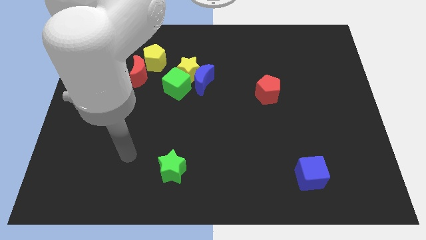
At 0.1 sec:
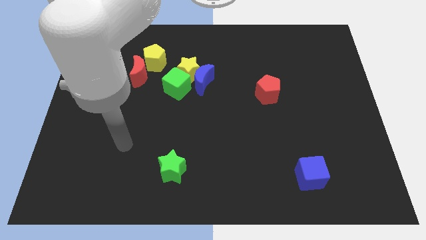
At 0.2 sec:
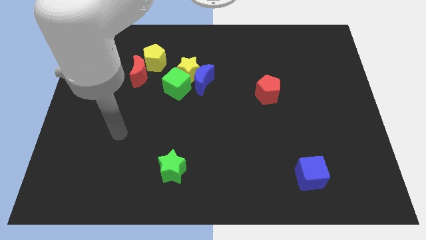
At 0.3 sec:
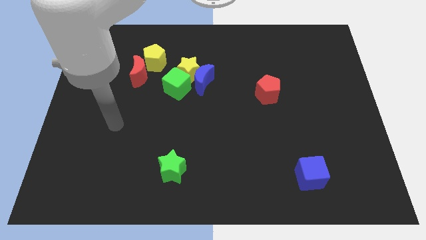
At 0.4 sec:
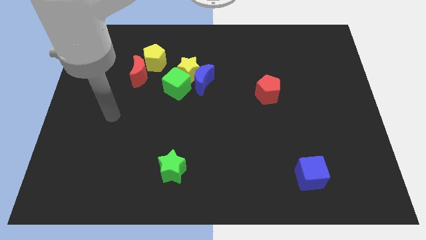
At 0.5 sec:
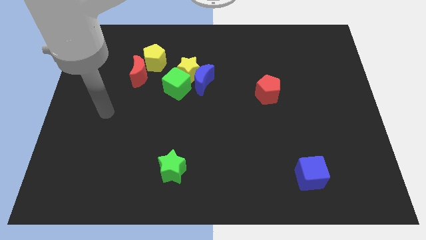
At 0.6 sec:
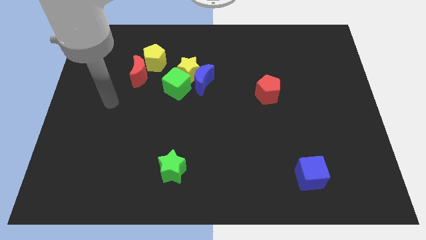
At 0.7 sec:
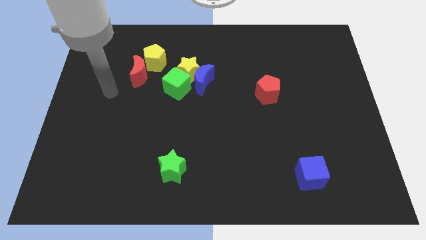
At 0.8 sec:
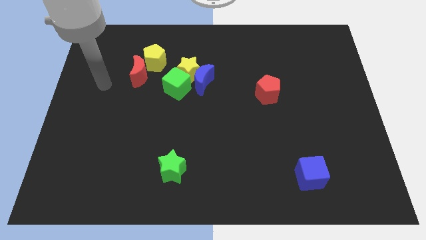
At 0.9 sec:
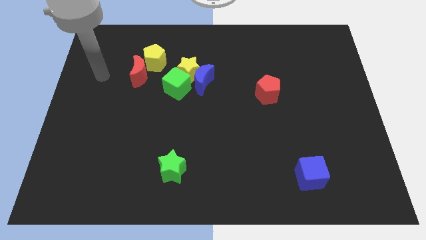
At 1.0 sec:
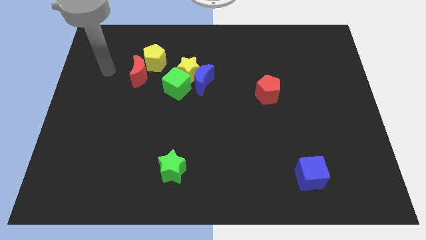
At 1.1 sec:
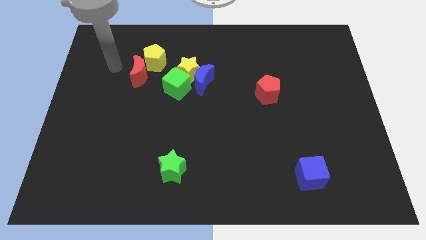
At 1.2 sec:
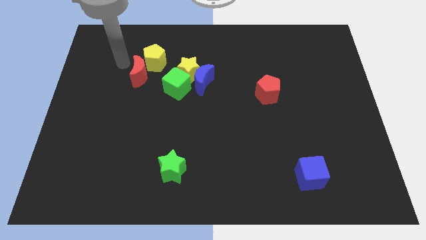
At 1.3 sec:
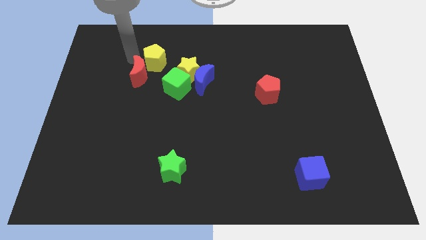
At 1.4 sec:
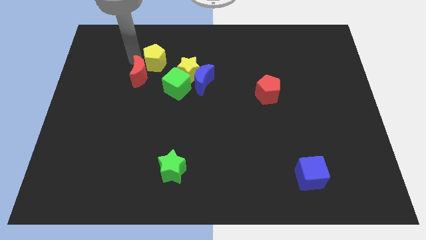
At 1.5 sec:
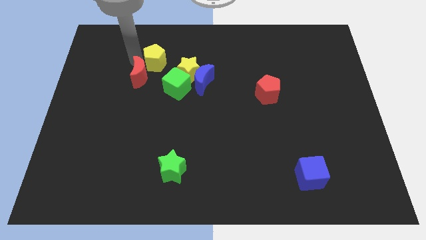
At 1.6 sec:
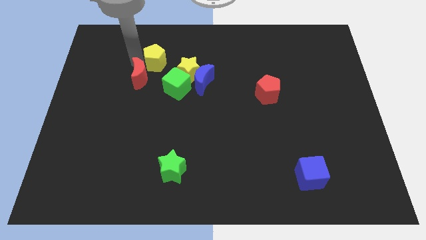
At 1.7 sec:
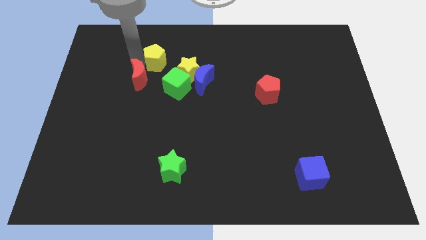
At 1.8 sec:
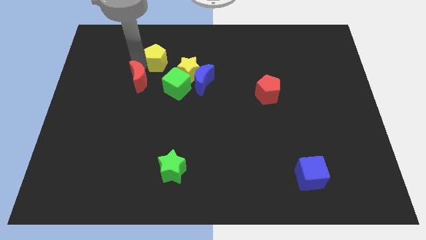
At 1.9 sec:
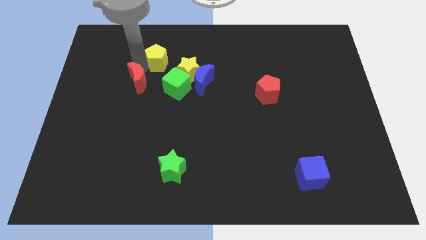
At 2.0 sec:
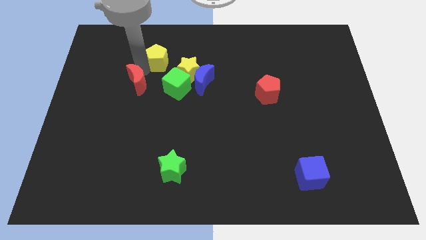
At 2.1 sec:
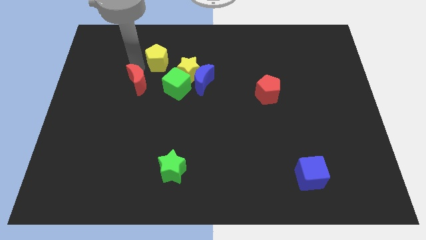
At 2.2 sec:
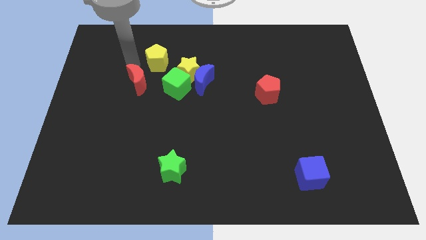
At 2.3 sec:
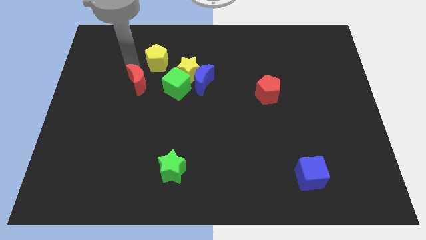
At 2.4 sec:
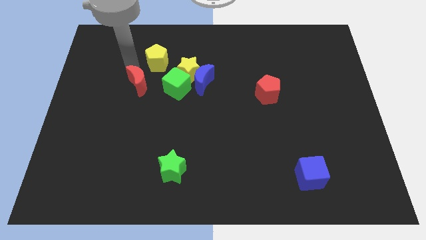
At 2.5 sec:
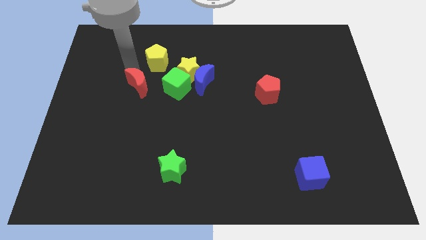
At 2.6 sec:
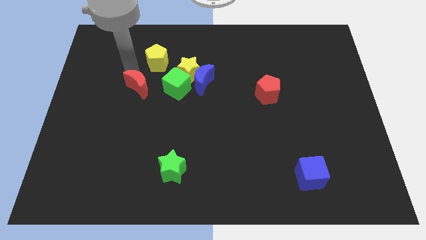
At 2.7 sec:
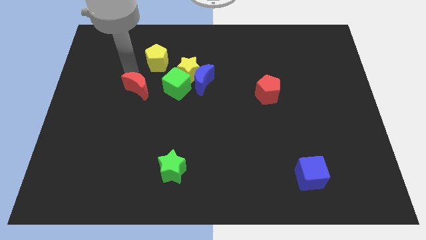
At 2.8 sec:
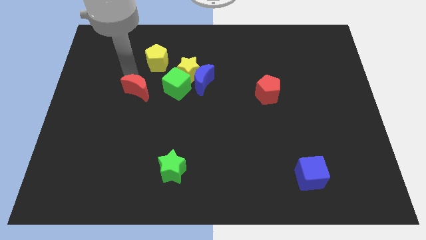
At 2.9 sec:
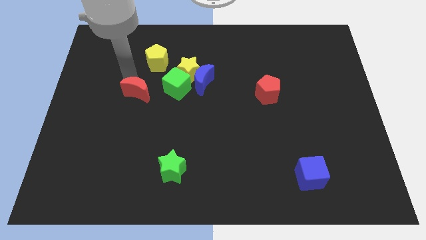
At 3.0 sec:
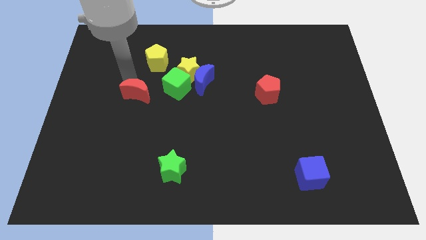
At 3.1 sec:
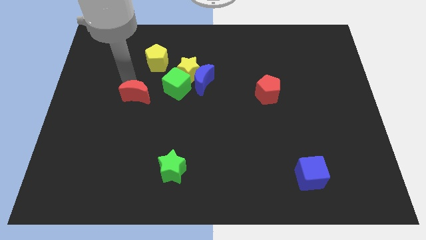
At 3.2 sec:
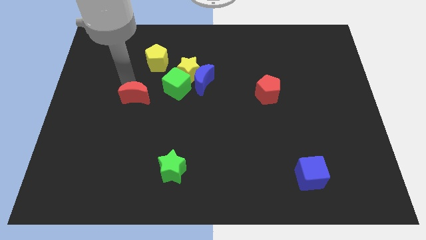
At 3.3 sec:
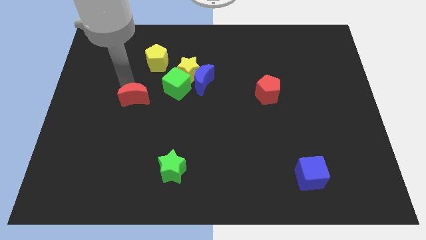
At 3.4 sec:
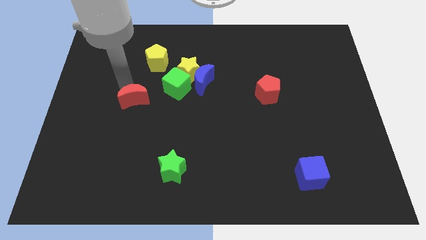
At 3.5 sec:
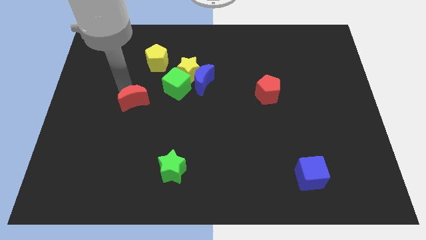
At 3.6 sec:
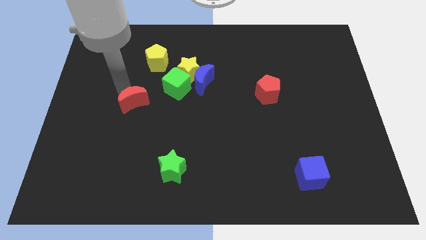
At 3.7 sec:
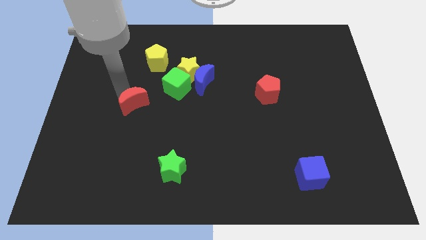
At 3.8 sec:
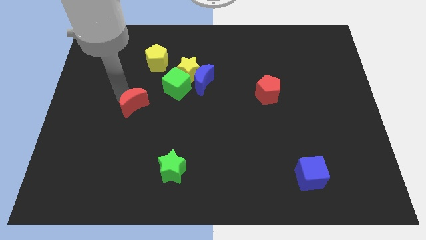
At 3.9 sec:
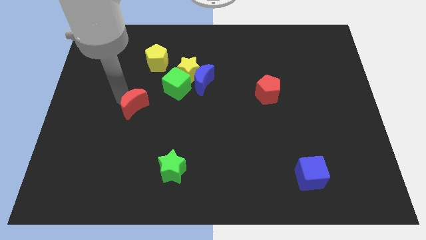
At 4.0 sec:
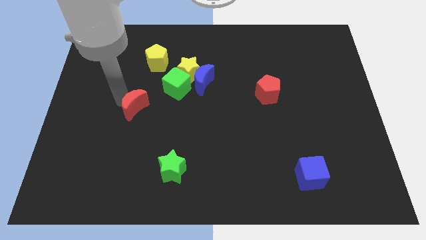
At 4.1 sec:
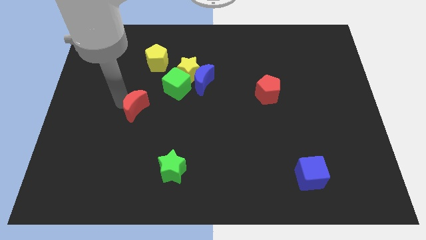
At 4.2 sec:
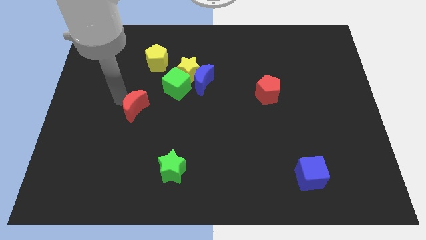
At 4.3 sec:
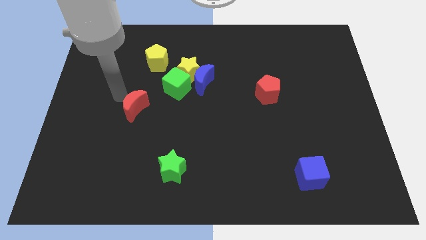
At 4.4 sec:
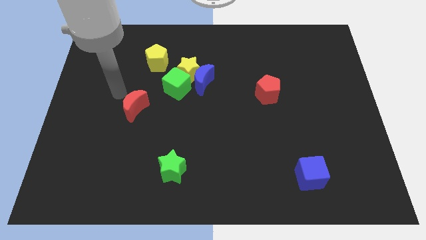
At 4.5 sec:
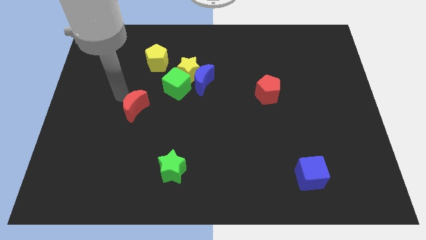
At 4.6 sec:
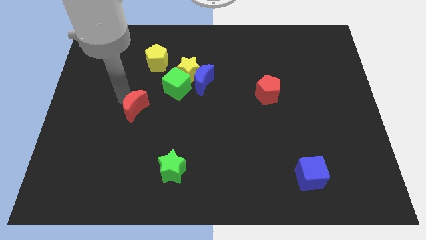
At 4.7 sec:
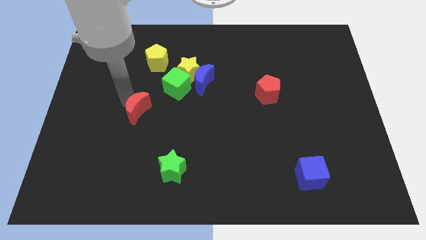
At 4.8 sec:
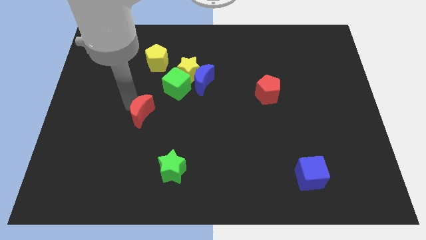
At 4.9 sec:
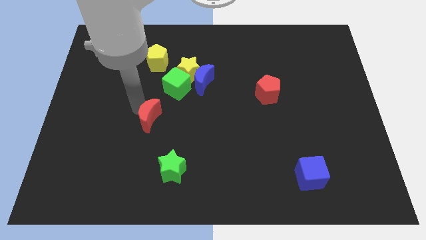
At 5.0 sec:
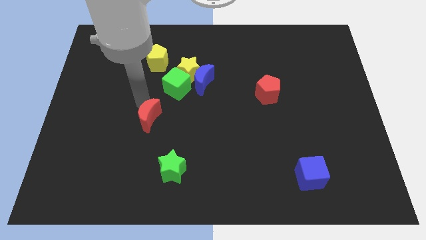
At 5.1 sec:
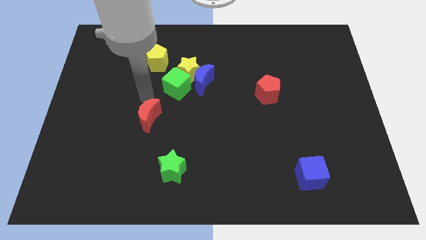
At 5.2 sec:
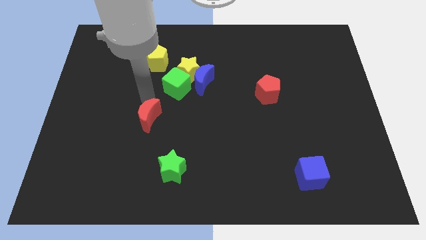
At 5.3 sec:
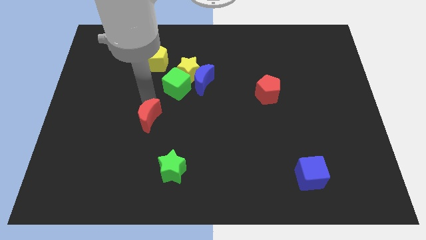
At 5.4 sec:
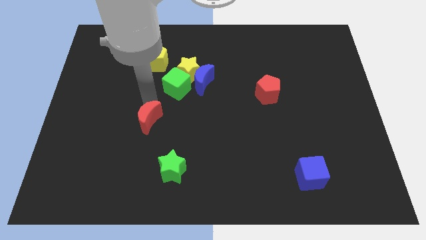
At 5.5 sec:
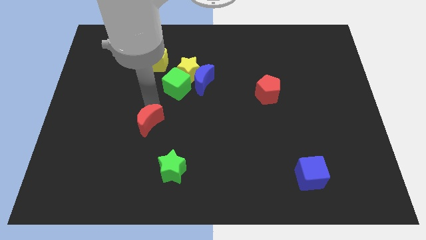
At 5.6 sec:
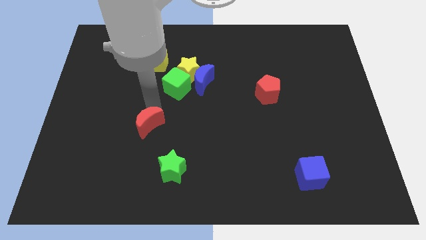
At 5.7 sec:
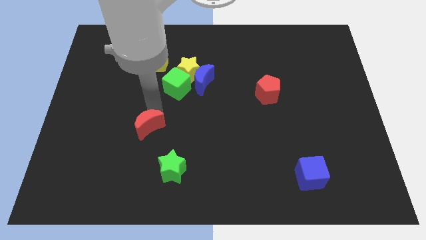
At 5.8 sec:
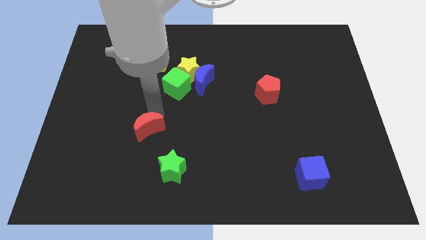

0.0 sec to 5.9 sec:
move the red moon to the top left of the green star
